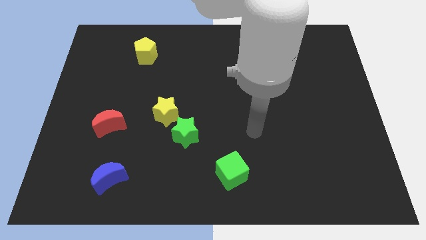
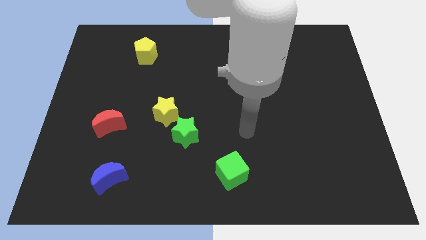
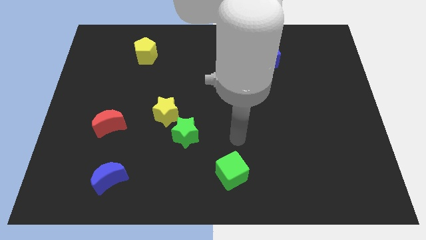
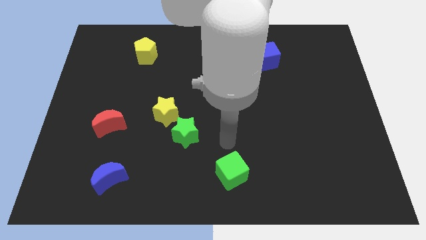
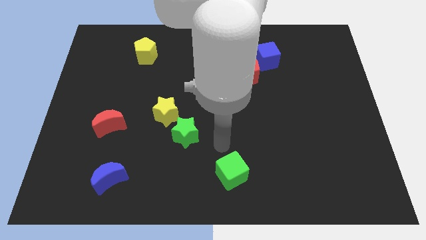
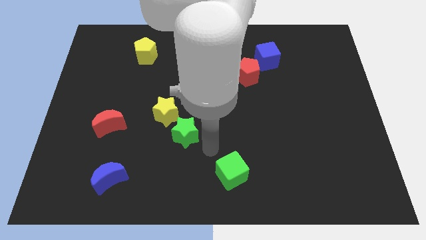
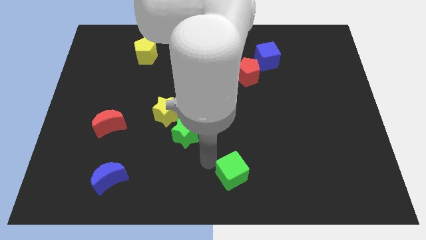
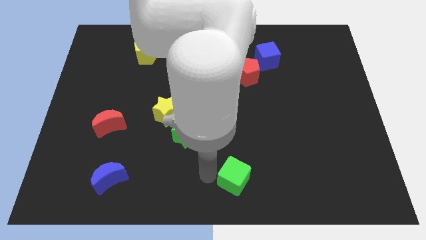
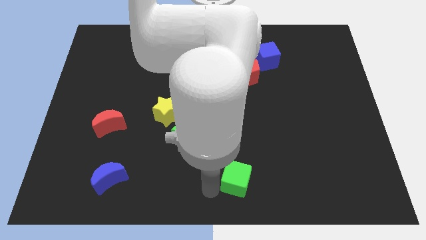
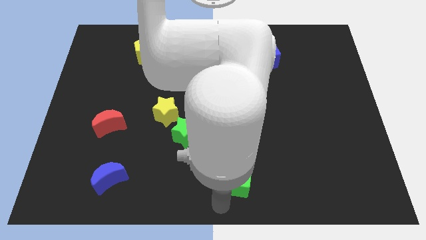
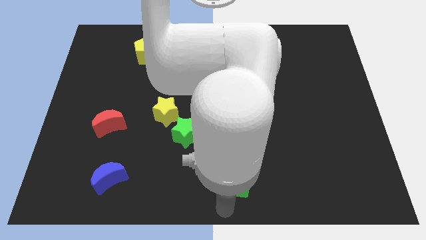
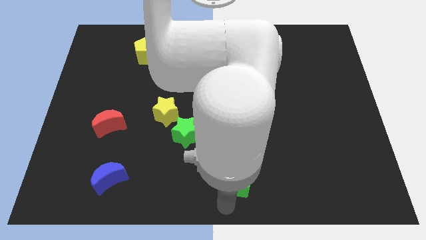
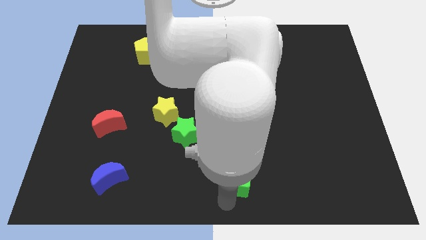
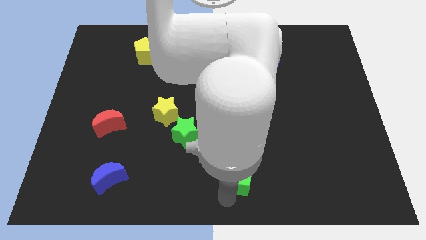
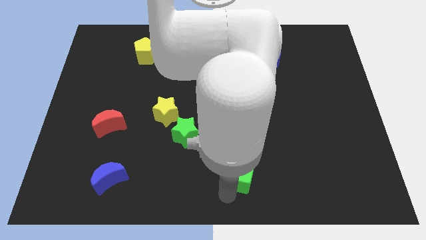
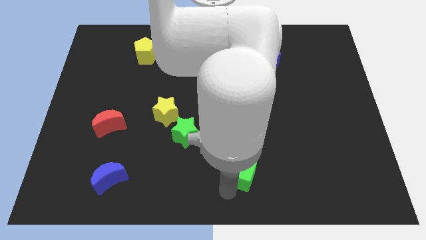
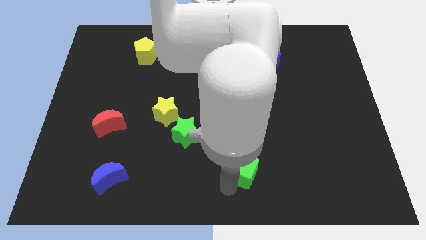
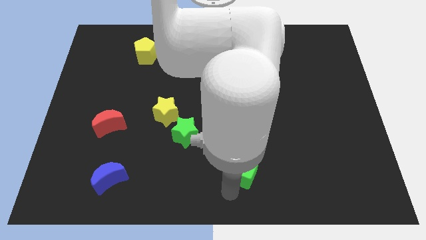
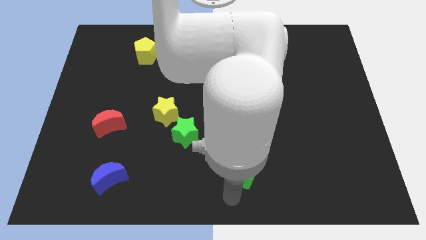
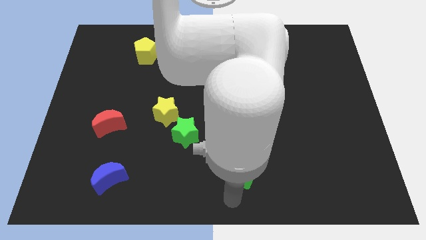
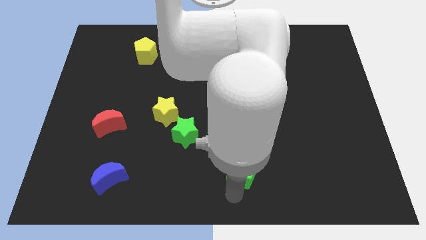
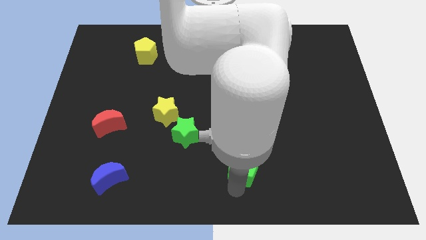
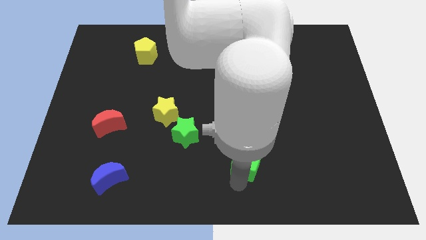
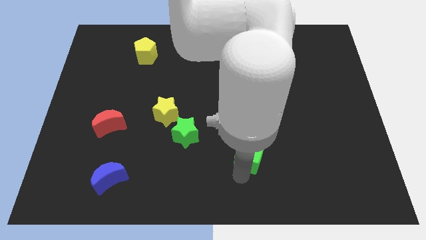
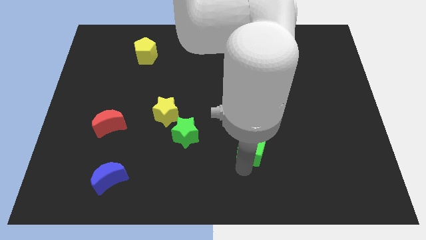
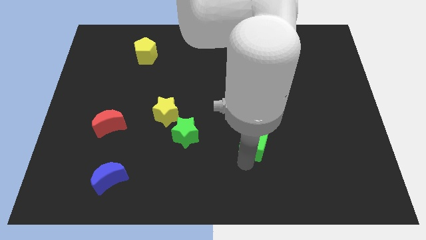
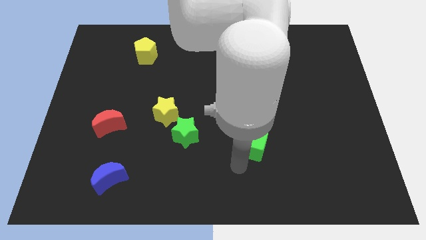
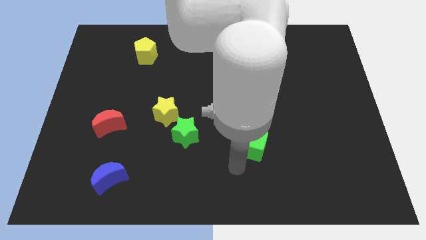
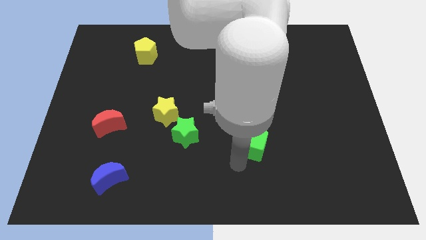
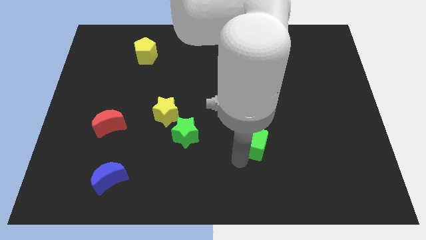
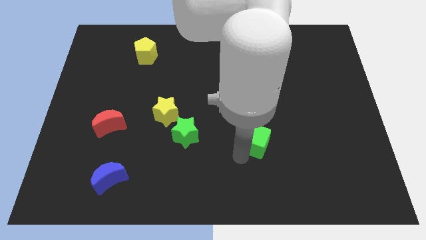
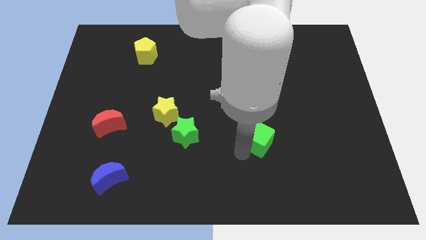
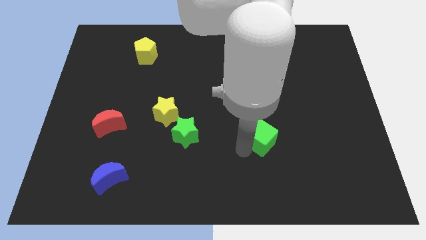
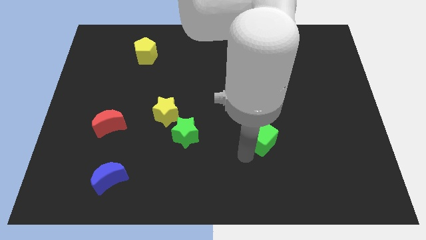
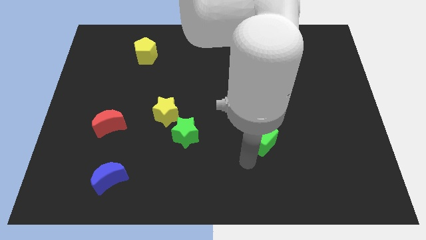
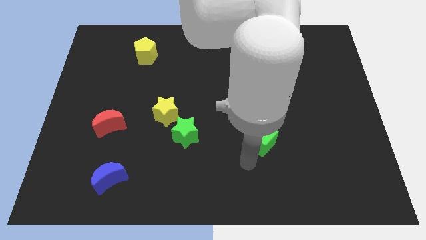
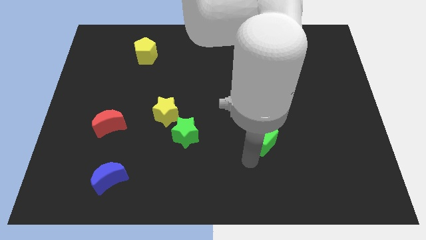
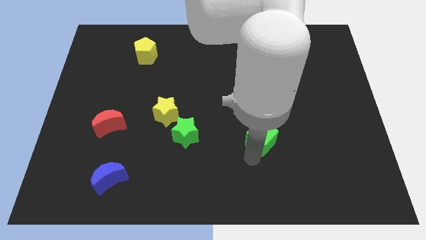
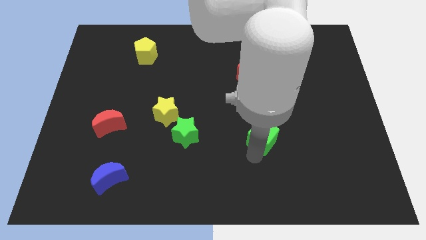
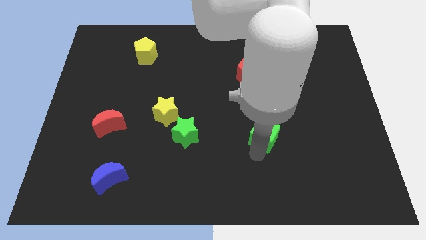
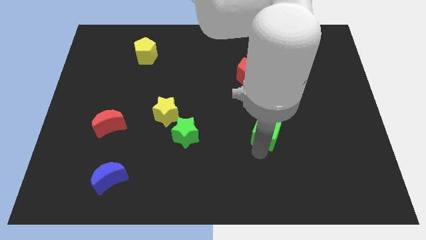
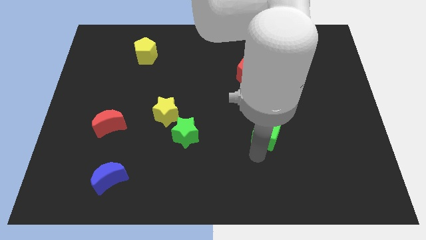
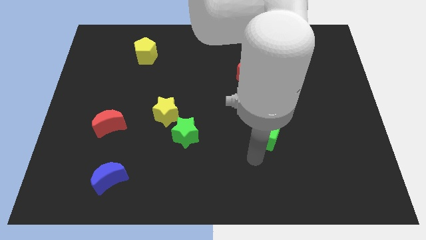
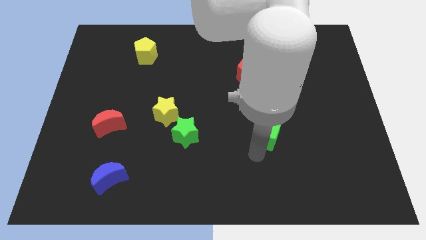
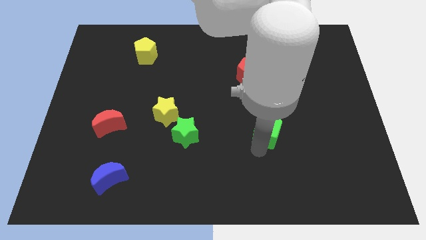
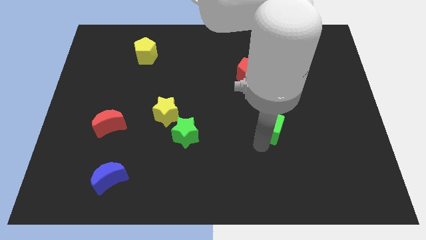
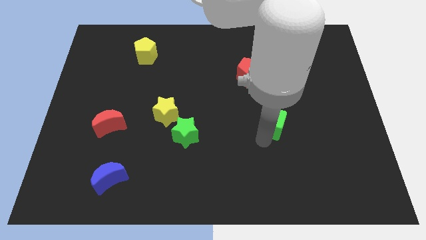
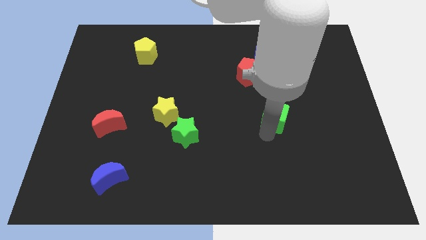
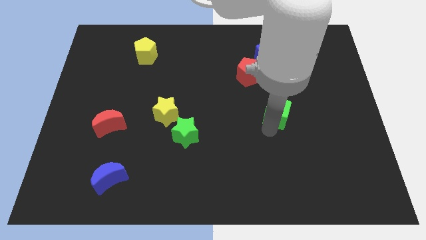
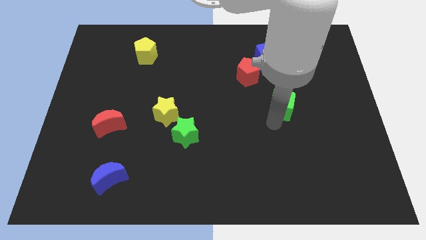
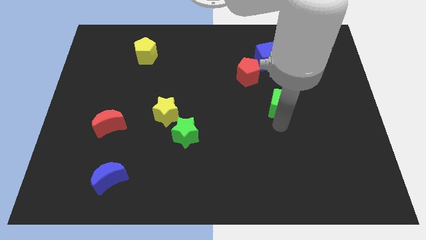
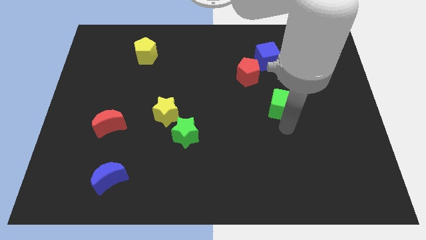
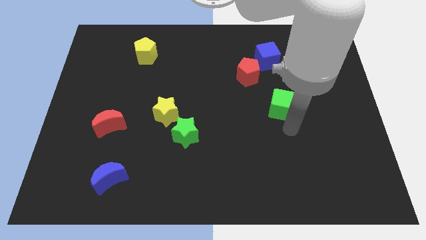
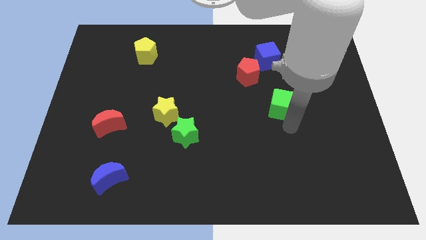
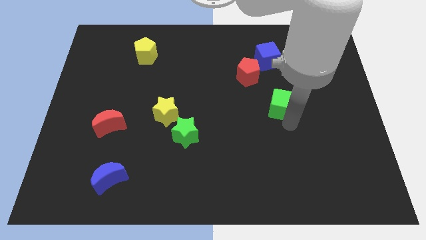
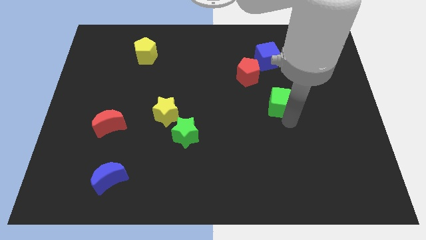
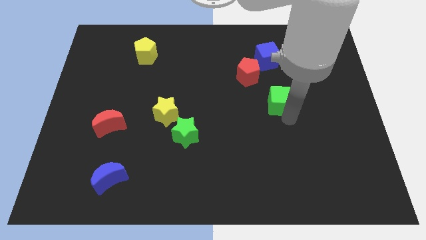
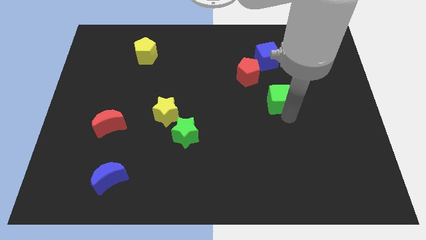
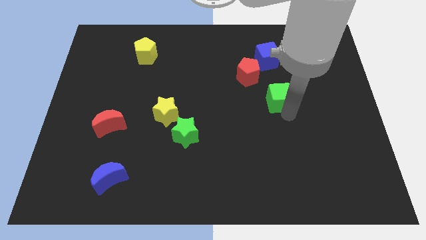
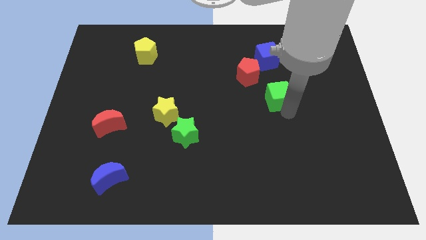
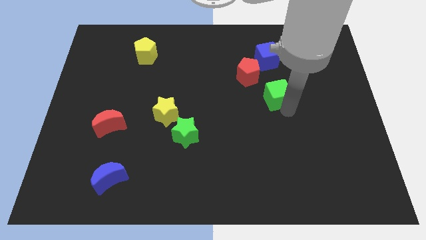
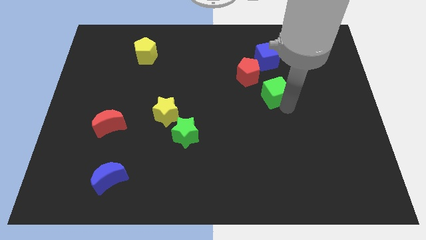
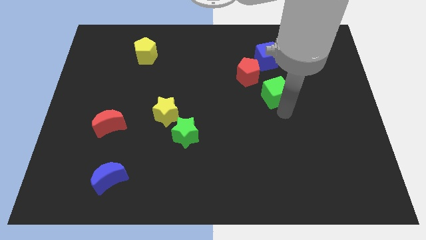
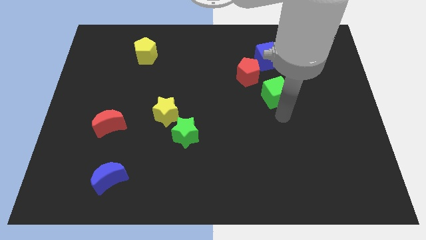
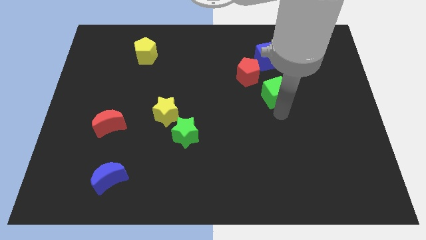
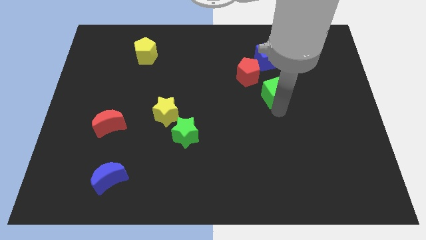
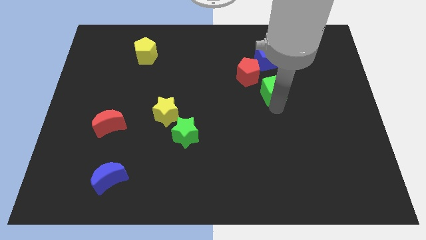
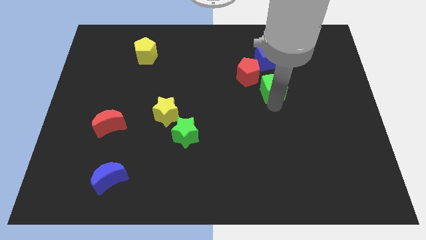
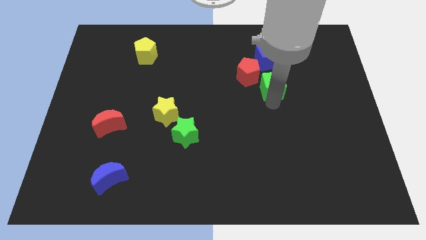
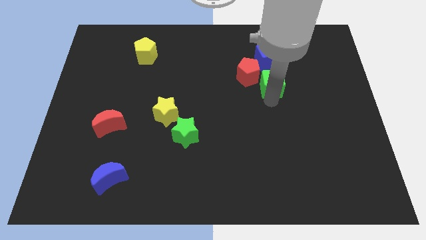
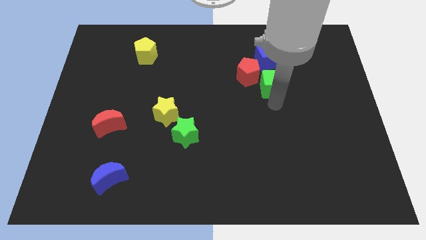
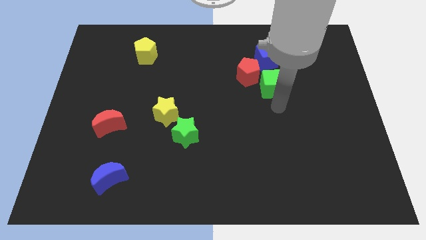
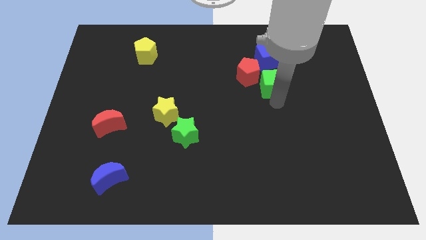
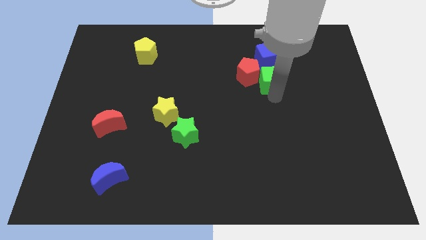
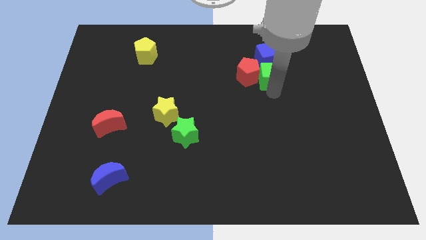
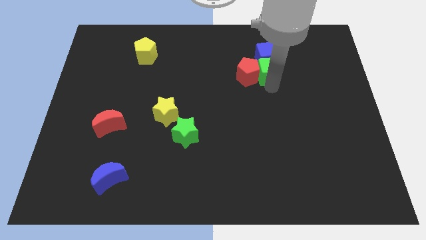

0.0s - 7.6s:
move the green cube next to the blue cube
